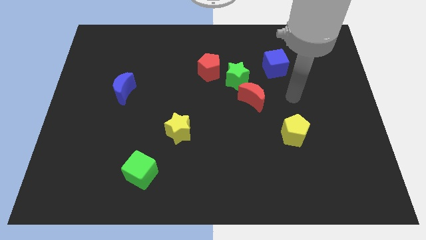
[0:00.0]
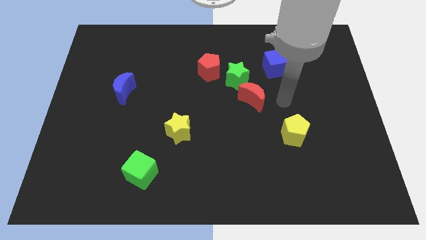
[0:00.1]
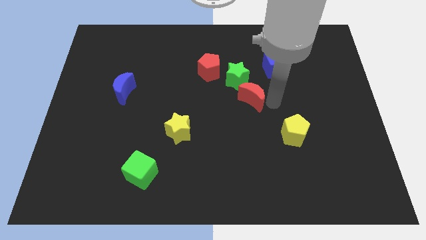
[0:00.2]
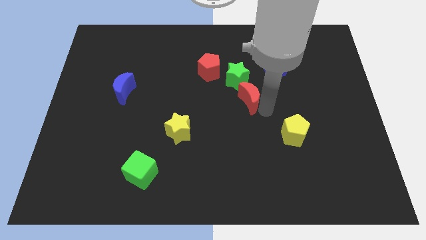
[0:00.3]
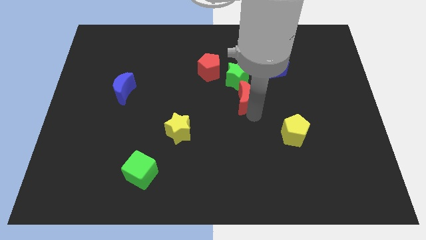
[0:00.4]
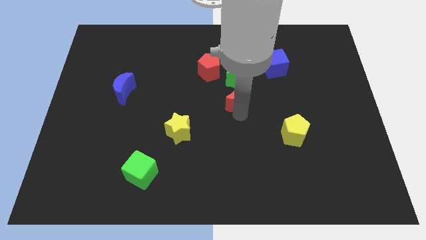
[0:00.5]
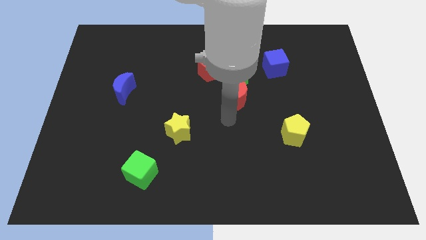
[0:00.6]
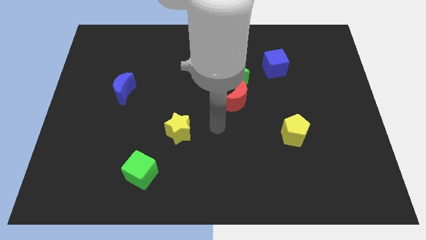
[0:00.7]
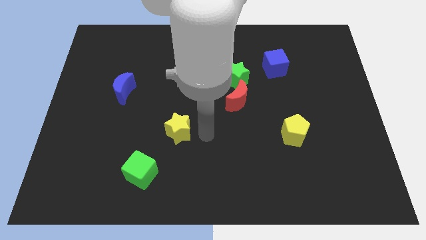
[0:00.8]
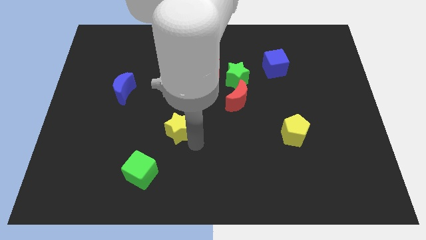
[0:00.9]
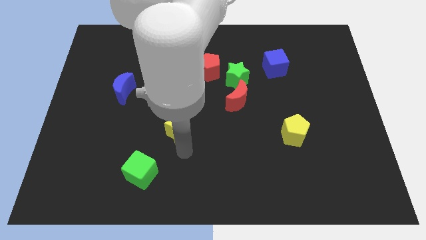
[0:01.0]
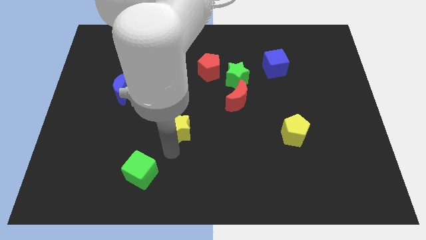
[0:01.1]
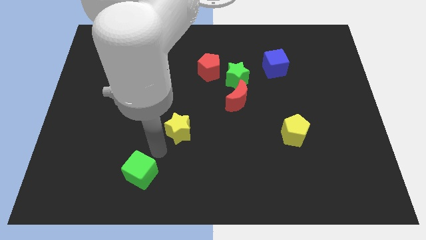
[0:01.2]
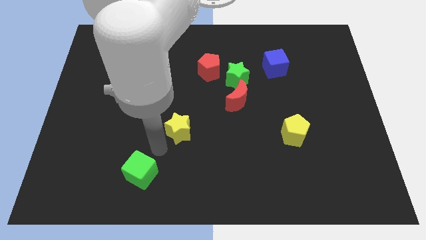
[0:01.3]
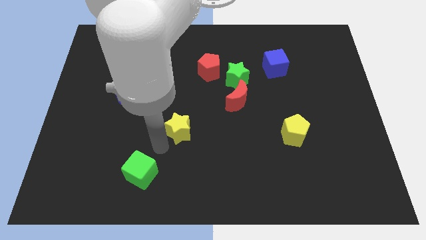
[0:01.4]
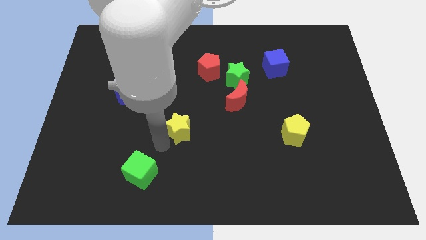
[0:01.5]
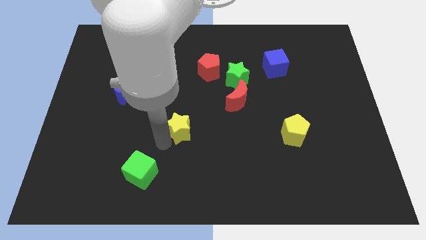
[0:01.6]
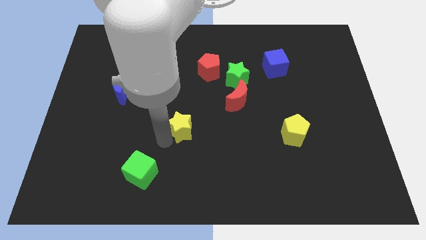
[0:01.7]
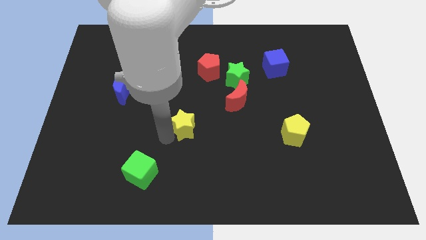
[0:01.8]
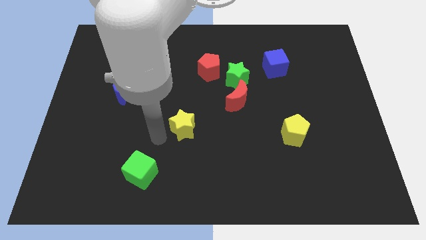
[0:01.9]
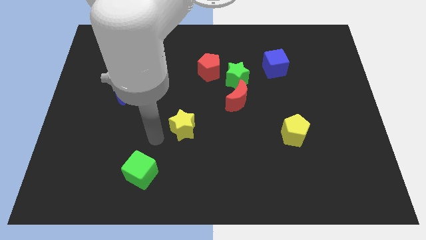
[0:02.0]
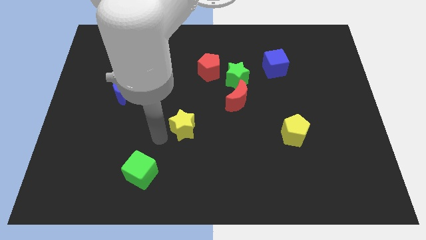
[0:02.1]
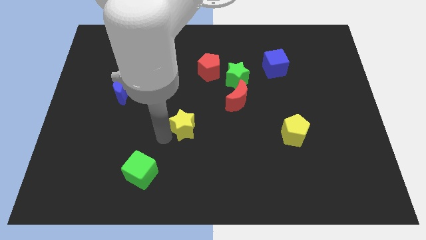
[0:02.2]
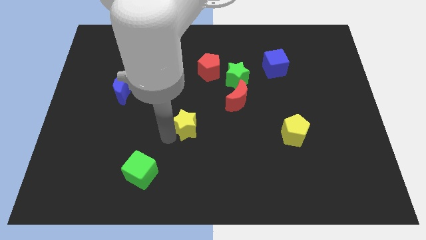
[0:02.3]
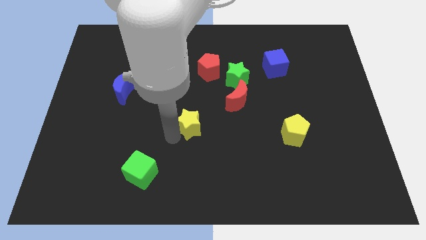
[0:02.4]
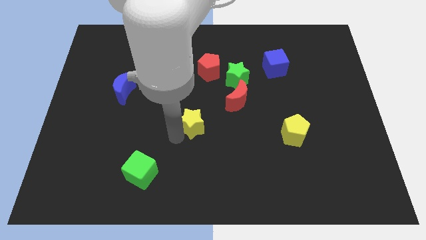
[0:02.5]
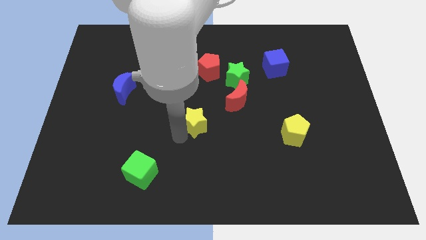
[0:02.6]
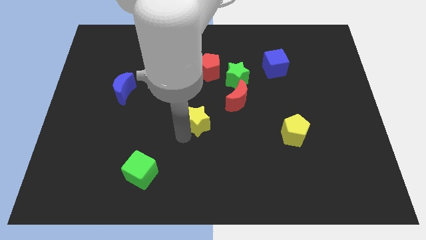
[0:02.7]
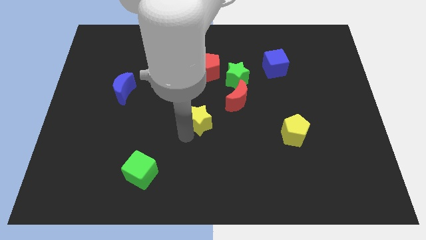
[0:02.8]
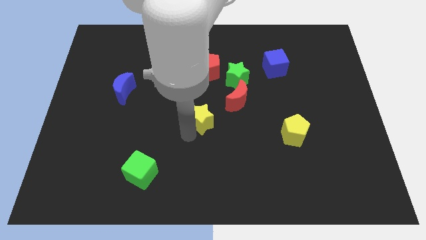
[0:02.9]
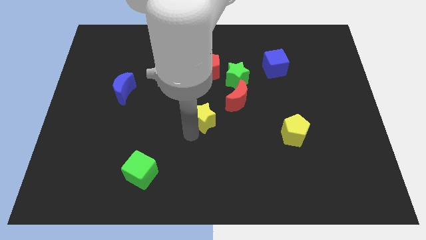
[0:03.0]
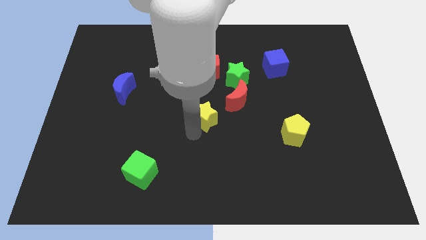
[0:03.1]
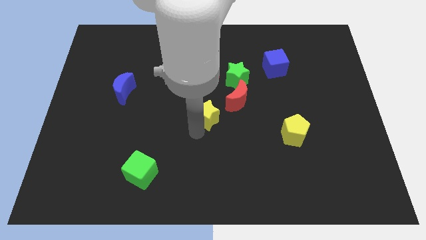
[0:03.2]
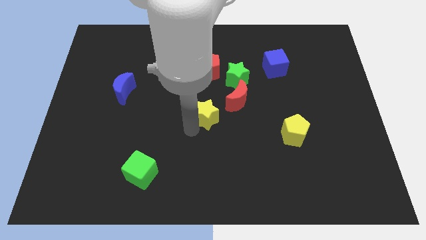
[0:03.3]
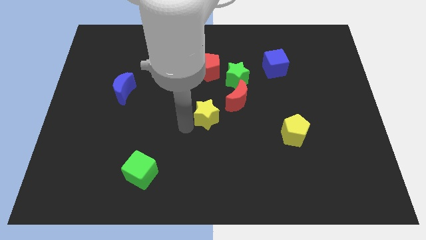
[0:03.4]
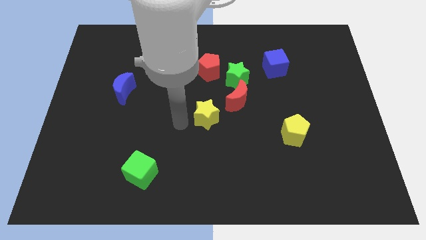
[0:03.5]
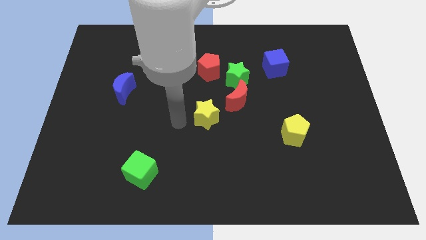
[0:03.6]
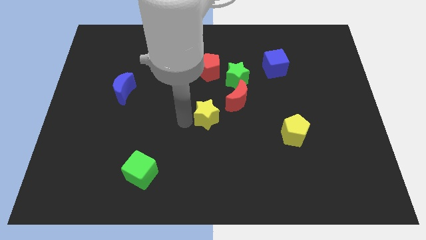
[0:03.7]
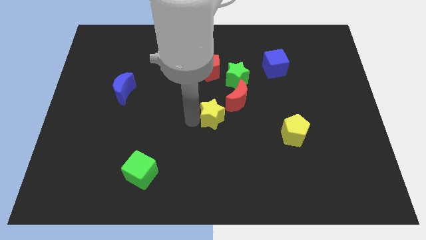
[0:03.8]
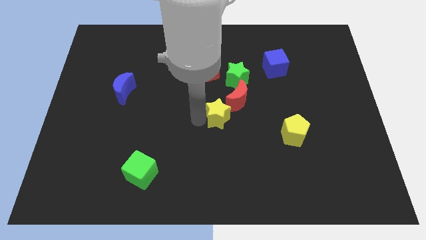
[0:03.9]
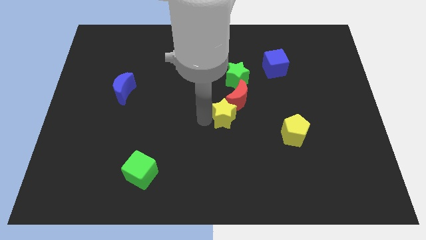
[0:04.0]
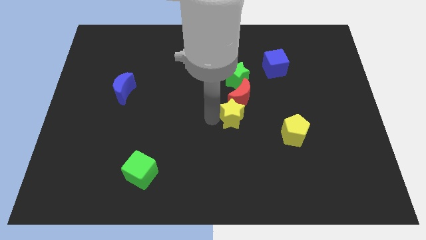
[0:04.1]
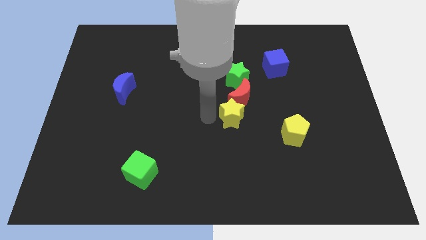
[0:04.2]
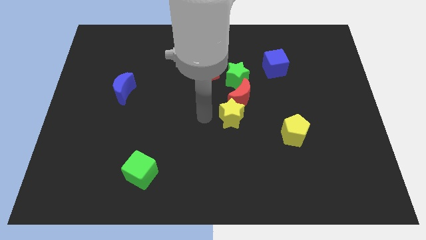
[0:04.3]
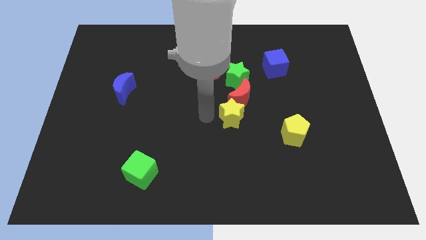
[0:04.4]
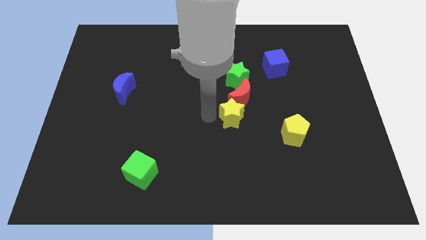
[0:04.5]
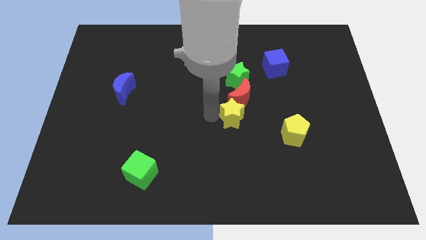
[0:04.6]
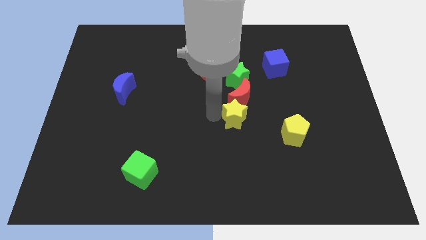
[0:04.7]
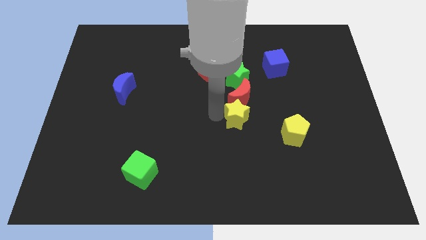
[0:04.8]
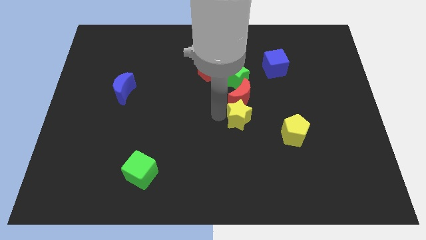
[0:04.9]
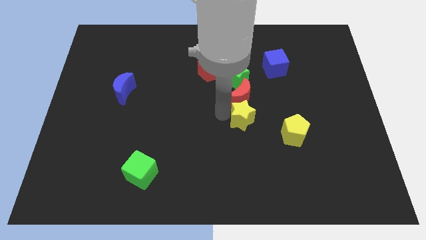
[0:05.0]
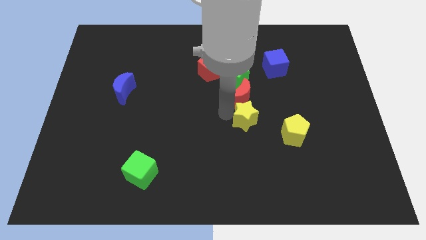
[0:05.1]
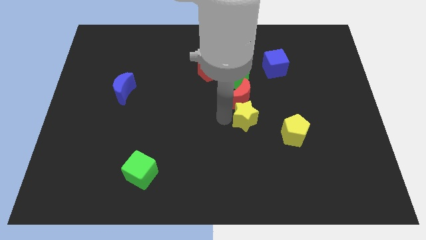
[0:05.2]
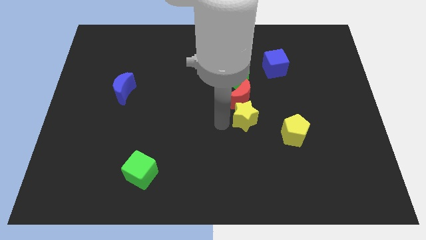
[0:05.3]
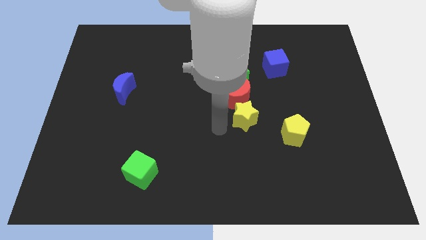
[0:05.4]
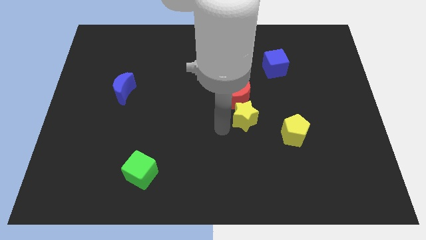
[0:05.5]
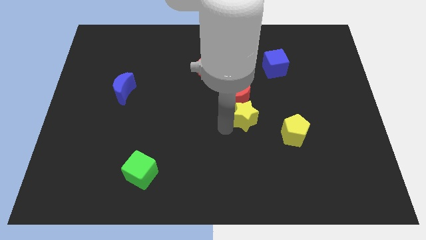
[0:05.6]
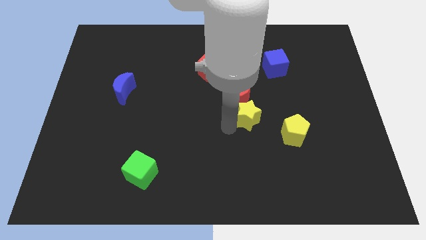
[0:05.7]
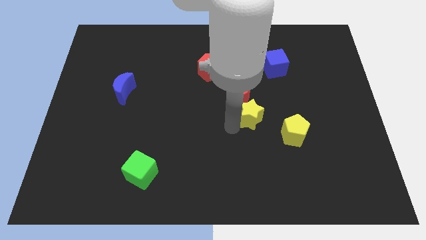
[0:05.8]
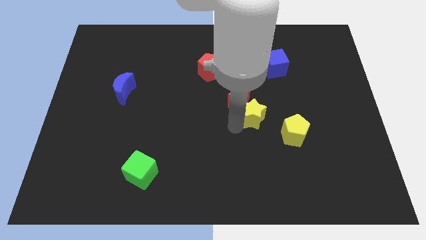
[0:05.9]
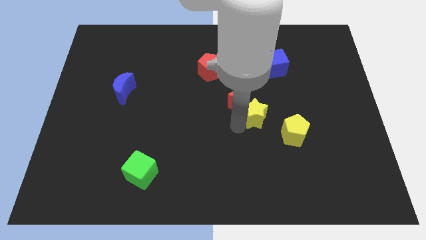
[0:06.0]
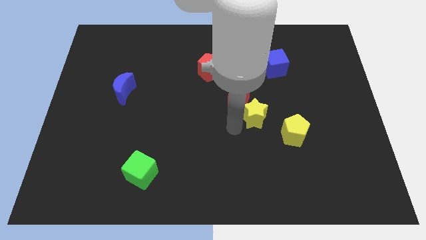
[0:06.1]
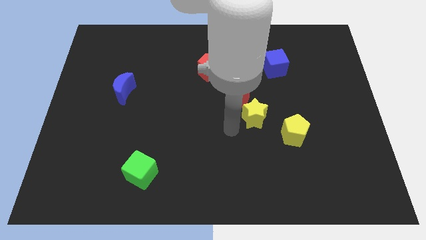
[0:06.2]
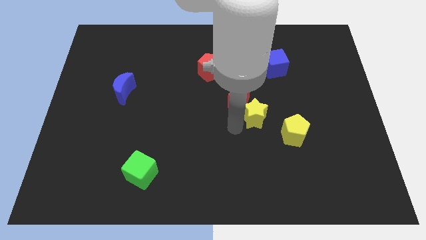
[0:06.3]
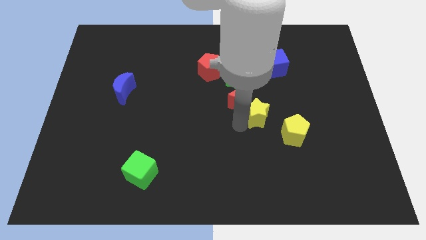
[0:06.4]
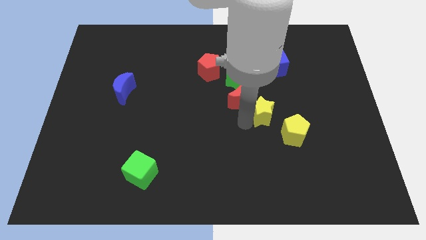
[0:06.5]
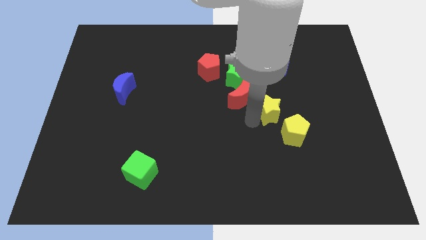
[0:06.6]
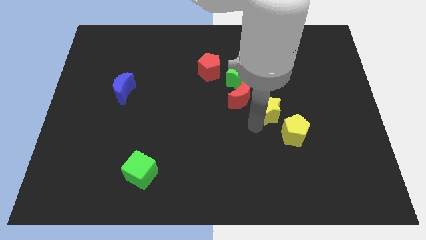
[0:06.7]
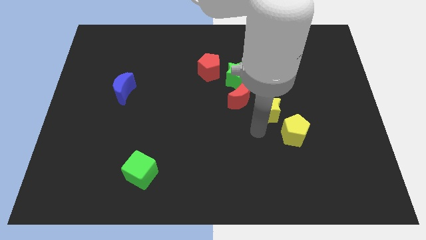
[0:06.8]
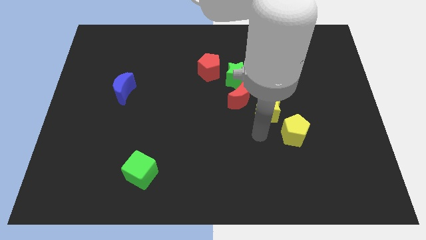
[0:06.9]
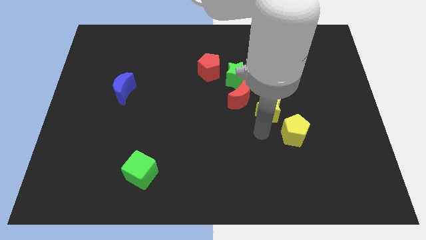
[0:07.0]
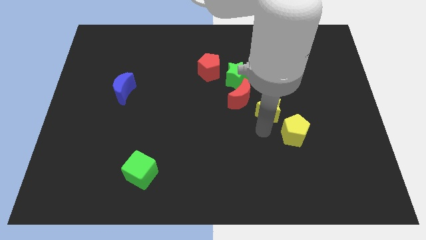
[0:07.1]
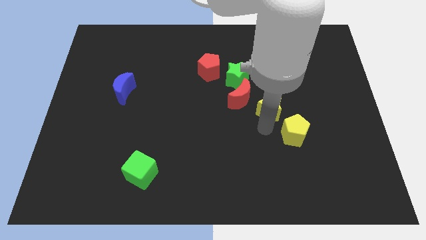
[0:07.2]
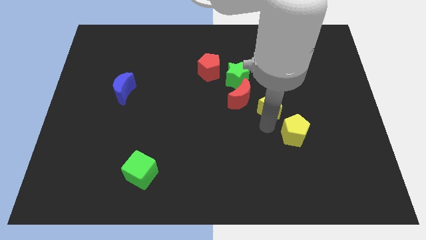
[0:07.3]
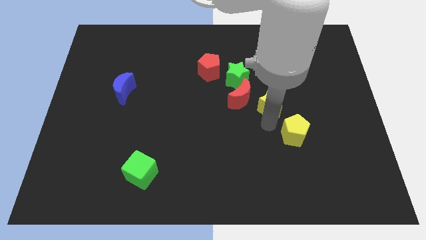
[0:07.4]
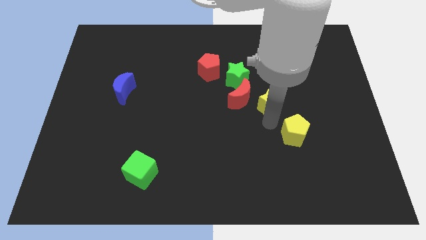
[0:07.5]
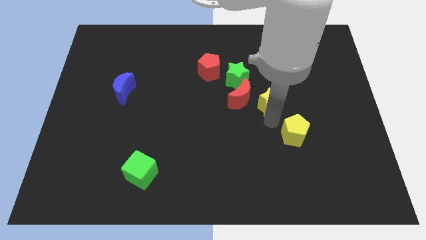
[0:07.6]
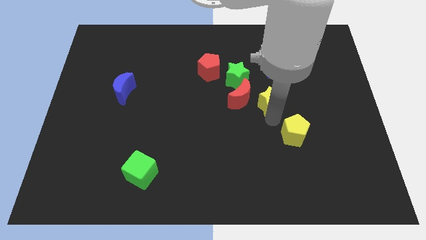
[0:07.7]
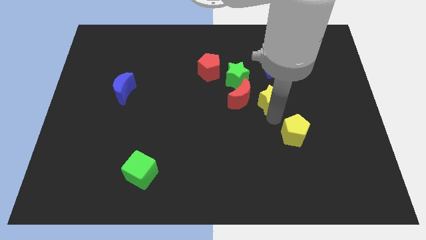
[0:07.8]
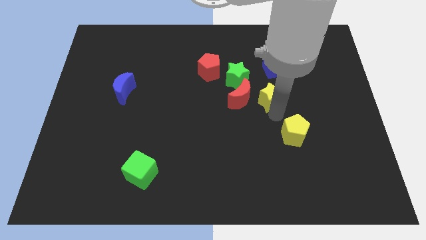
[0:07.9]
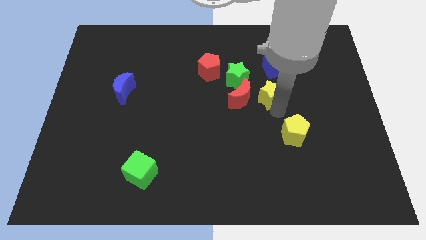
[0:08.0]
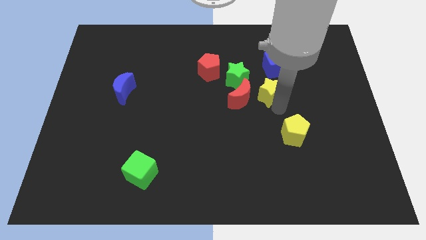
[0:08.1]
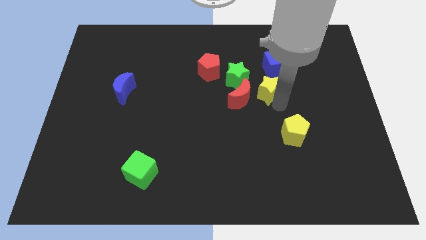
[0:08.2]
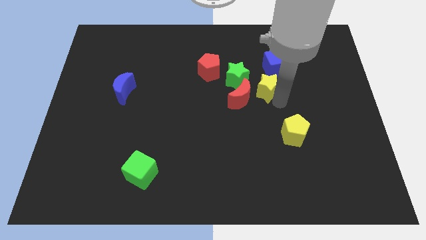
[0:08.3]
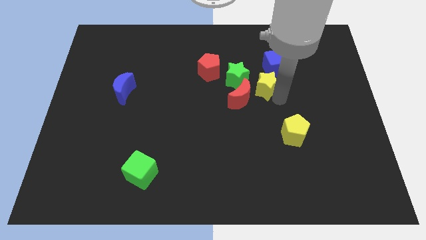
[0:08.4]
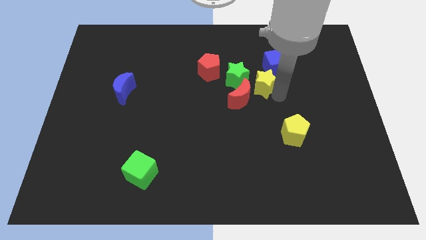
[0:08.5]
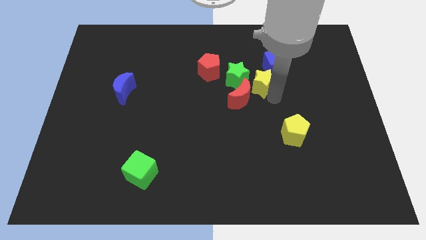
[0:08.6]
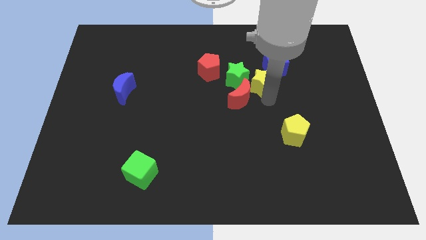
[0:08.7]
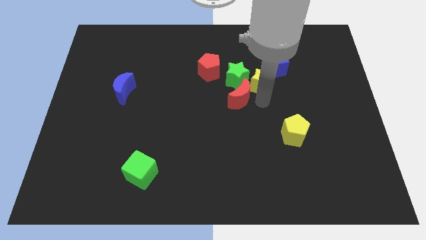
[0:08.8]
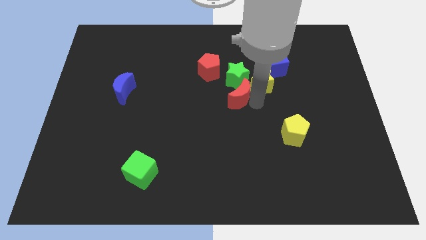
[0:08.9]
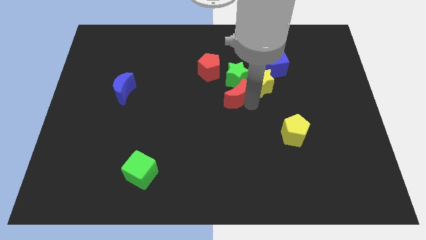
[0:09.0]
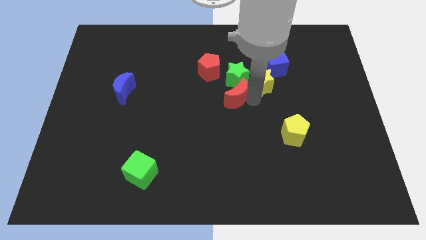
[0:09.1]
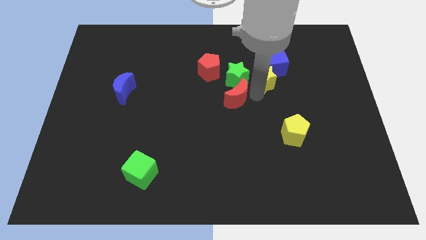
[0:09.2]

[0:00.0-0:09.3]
push the yellow star next to the blue cube
